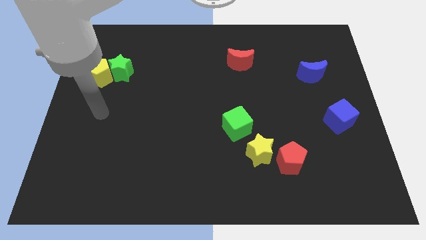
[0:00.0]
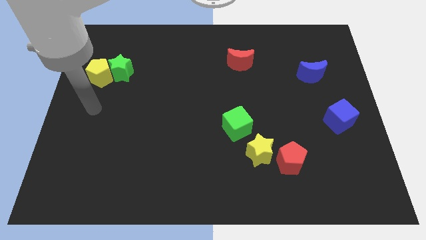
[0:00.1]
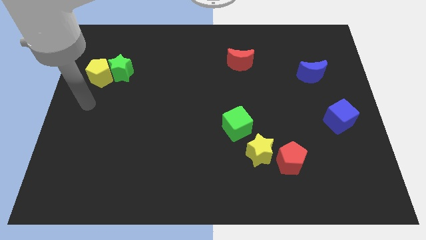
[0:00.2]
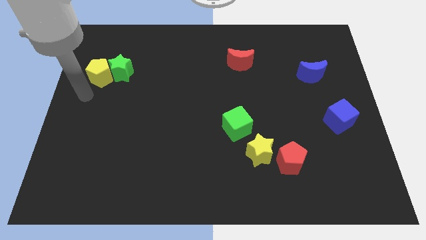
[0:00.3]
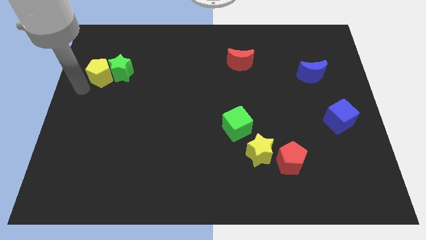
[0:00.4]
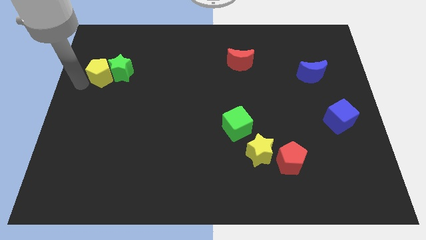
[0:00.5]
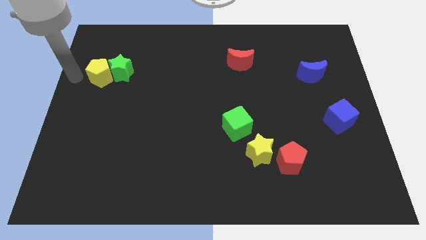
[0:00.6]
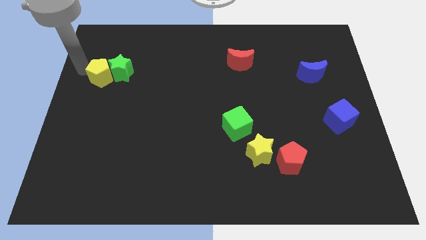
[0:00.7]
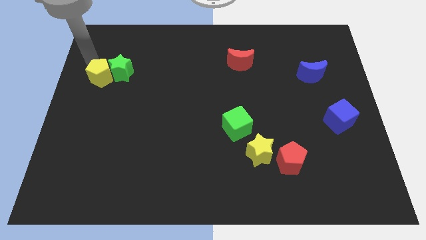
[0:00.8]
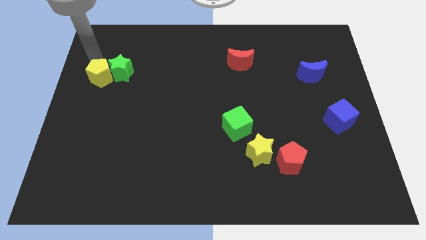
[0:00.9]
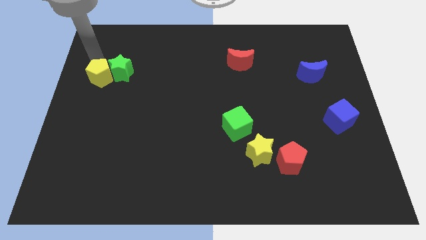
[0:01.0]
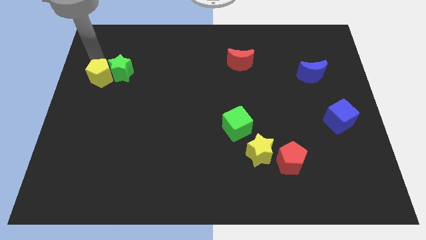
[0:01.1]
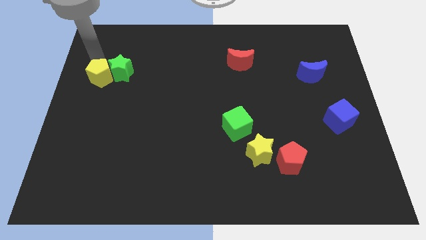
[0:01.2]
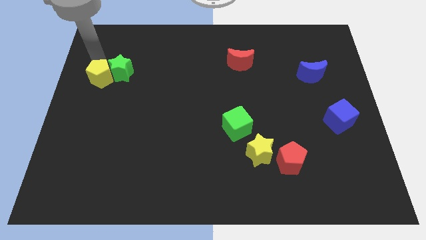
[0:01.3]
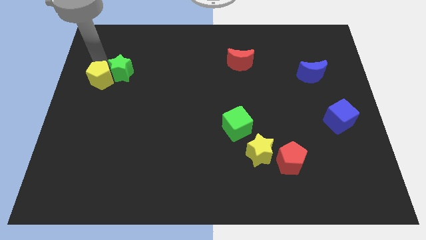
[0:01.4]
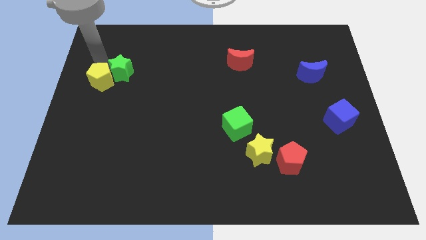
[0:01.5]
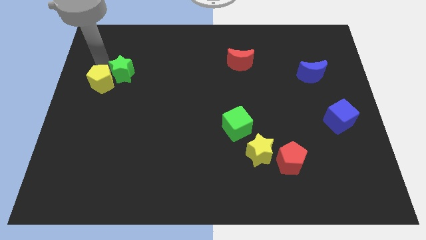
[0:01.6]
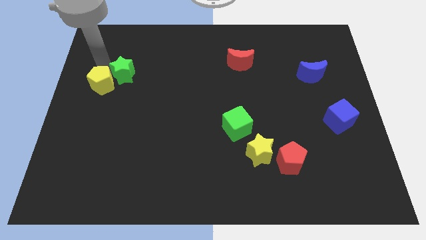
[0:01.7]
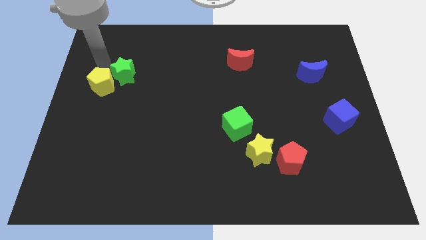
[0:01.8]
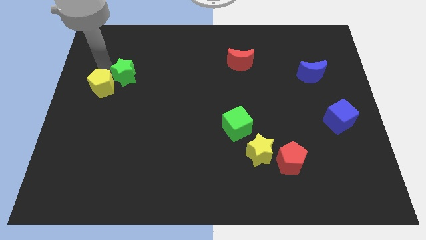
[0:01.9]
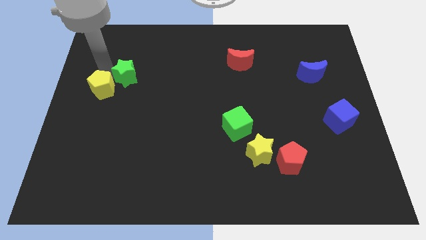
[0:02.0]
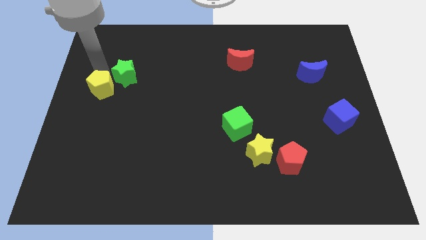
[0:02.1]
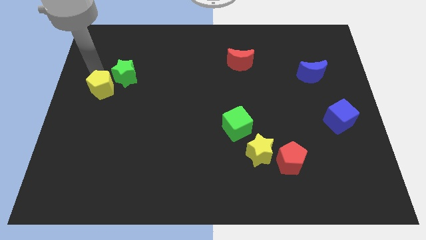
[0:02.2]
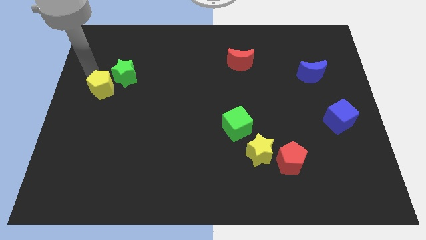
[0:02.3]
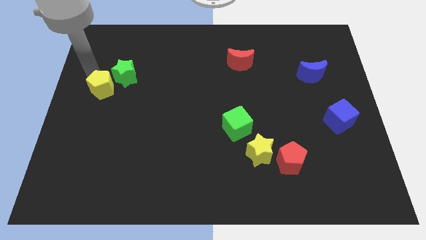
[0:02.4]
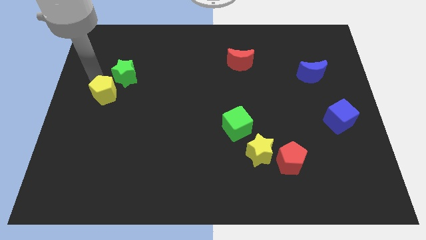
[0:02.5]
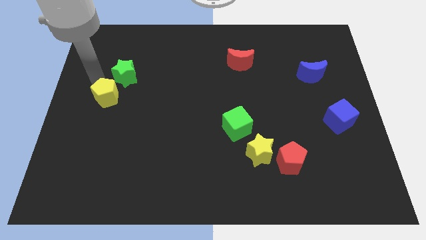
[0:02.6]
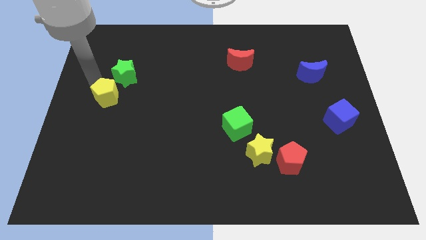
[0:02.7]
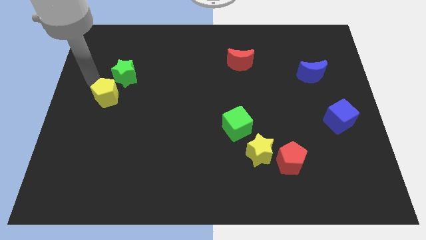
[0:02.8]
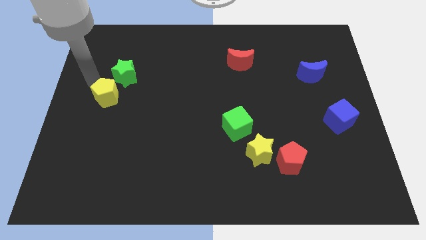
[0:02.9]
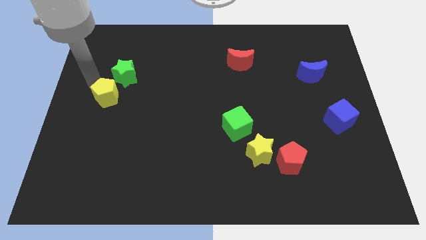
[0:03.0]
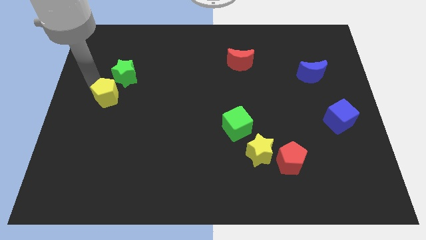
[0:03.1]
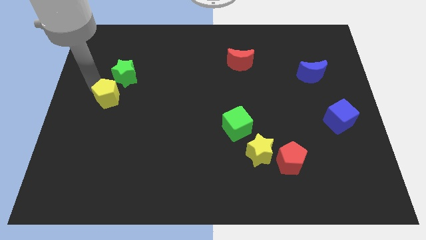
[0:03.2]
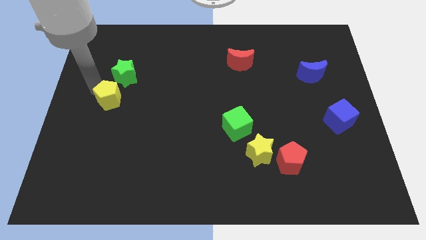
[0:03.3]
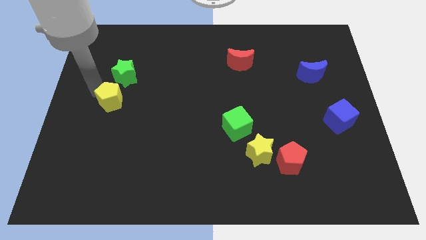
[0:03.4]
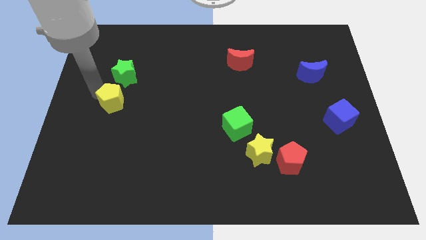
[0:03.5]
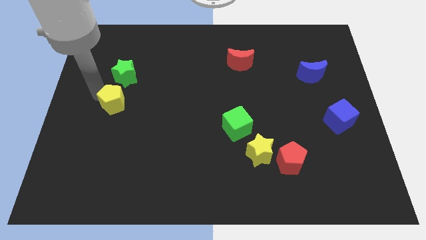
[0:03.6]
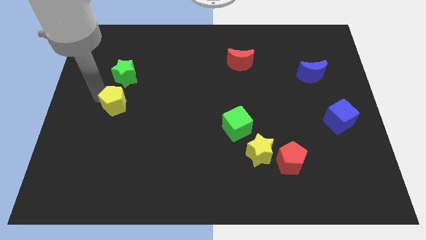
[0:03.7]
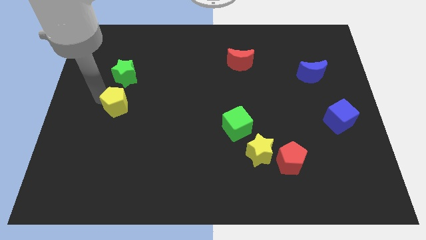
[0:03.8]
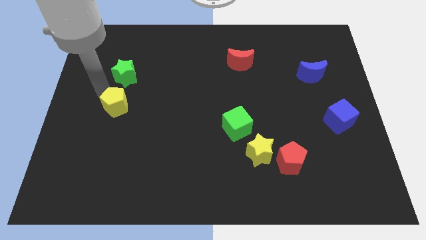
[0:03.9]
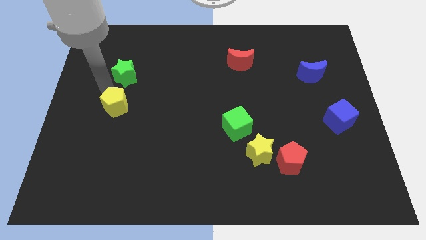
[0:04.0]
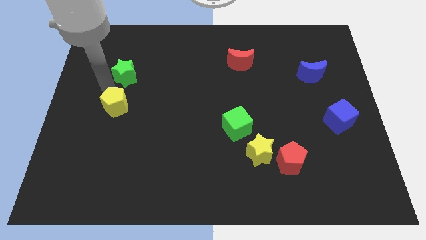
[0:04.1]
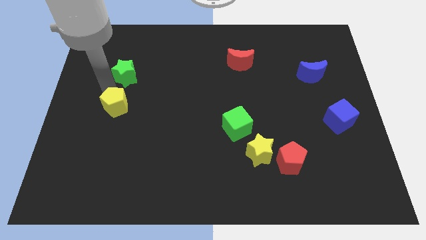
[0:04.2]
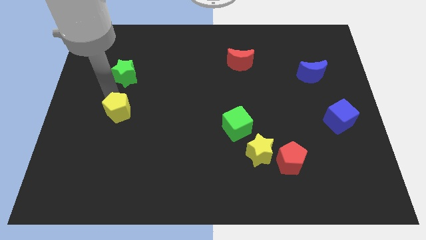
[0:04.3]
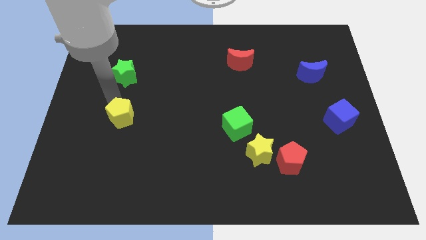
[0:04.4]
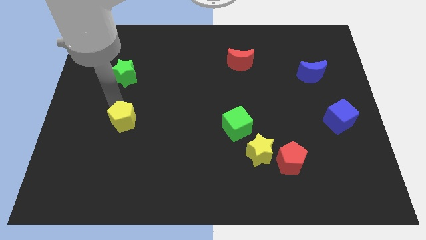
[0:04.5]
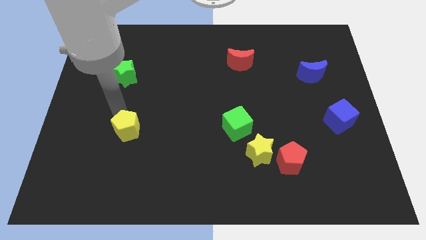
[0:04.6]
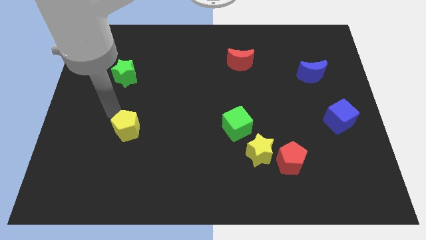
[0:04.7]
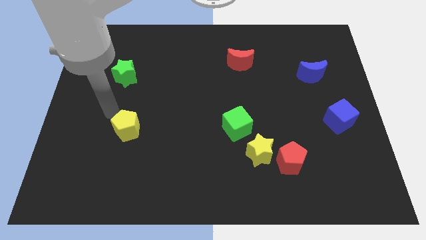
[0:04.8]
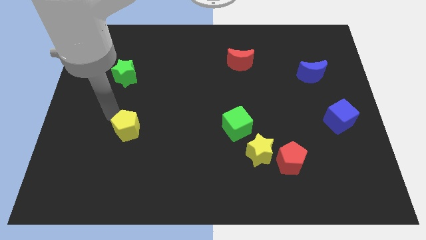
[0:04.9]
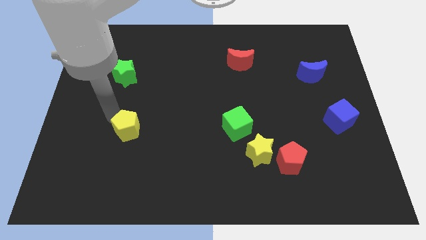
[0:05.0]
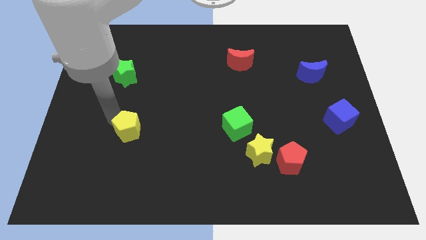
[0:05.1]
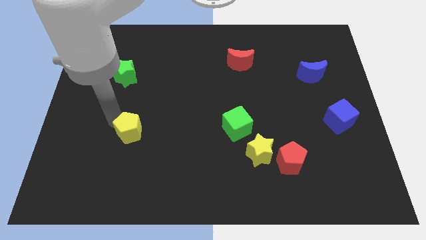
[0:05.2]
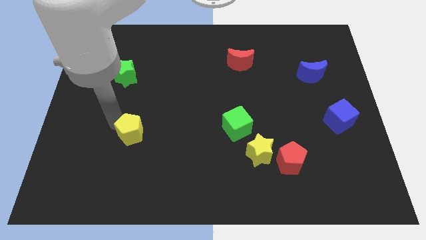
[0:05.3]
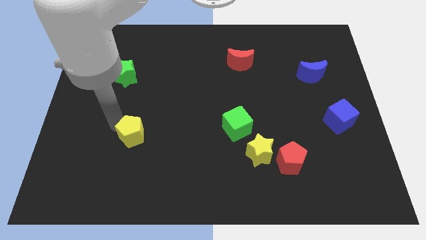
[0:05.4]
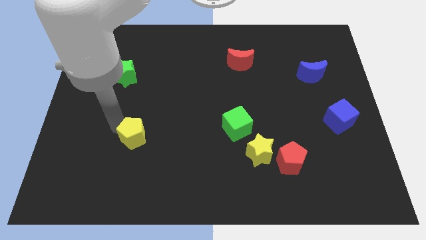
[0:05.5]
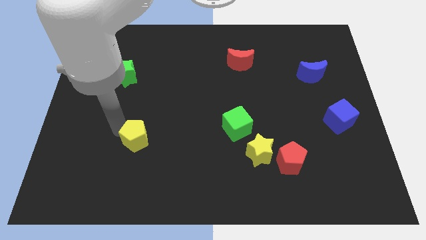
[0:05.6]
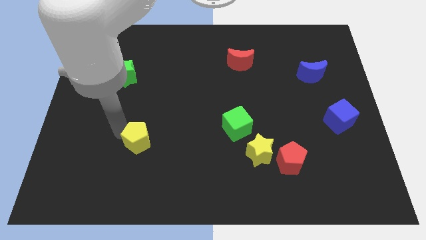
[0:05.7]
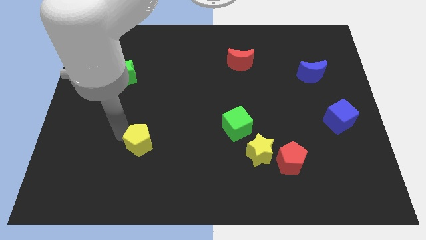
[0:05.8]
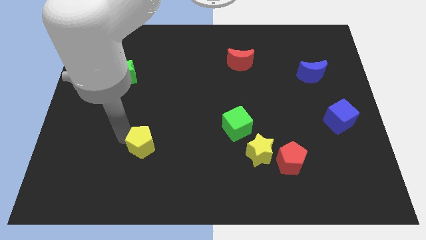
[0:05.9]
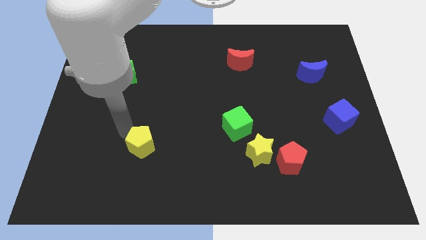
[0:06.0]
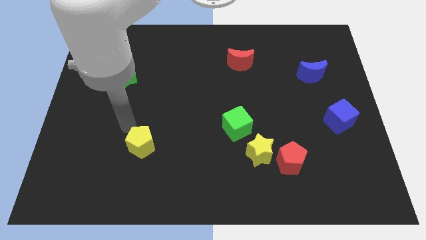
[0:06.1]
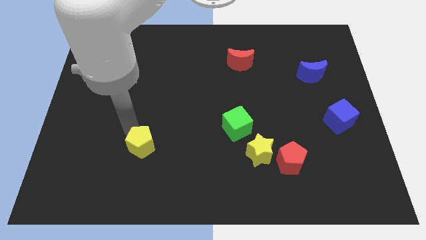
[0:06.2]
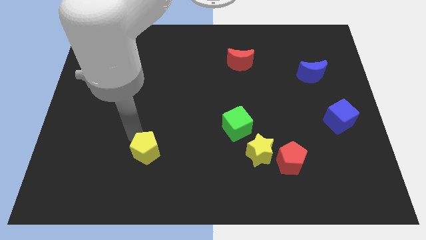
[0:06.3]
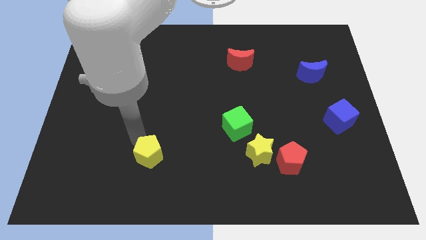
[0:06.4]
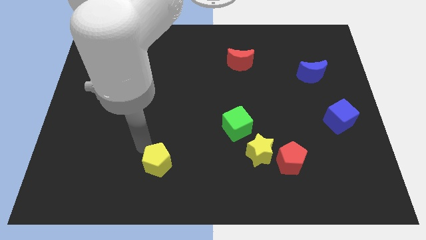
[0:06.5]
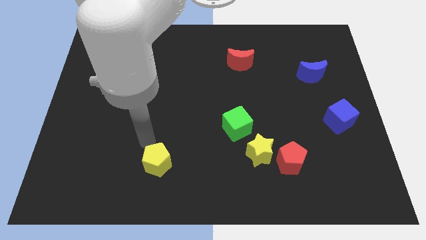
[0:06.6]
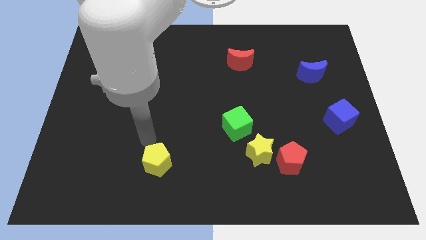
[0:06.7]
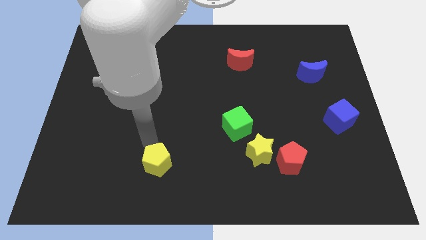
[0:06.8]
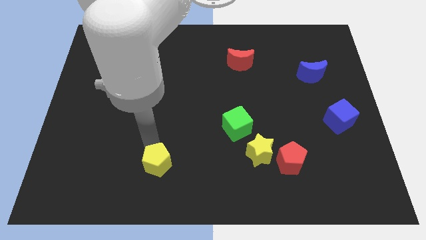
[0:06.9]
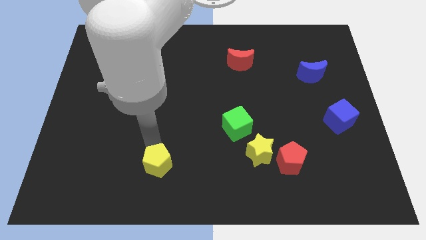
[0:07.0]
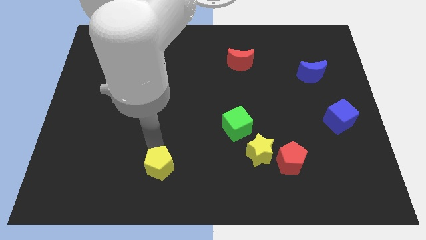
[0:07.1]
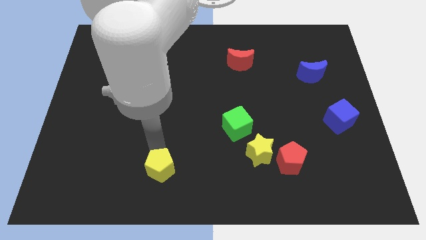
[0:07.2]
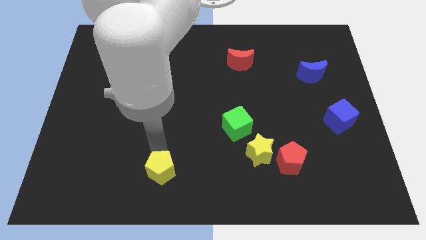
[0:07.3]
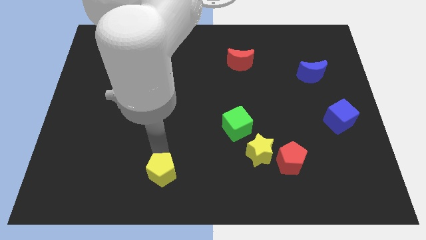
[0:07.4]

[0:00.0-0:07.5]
slide the yellow pentagon to the bottom

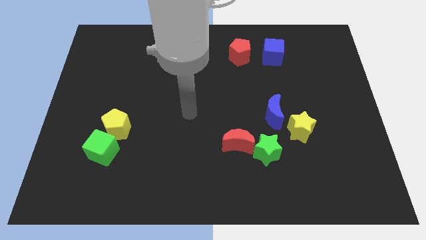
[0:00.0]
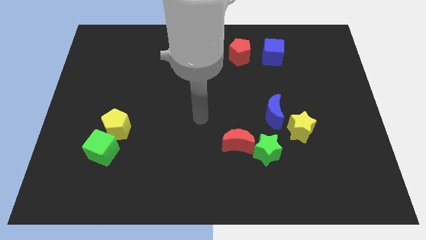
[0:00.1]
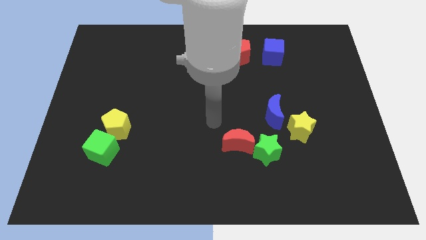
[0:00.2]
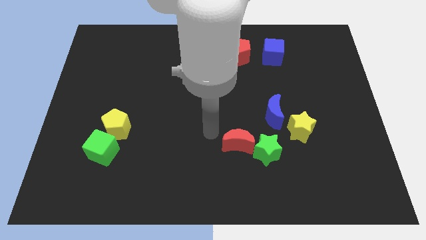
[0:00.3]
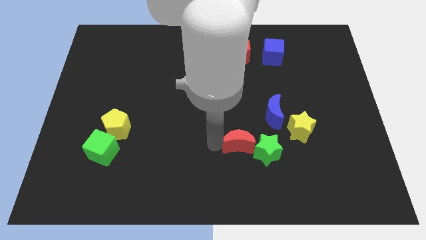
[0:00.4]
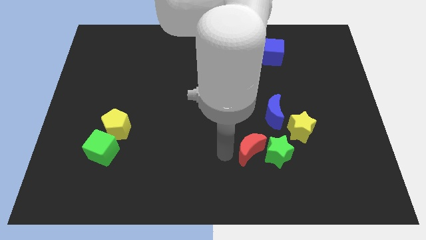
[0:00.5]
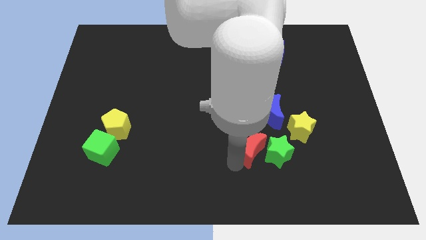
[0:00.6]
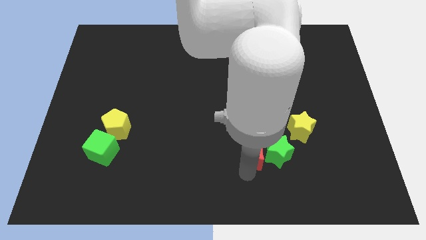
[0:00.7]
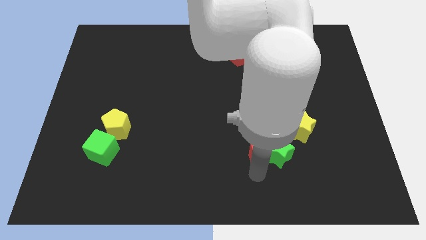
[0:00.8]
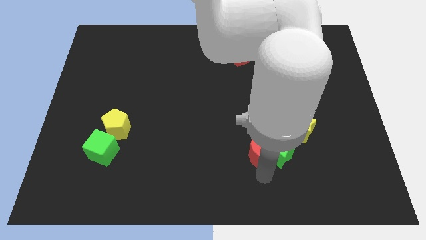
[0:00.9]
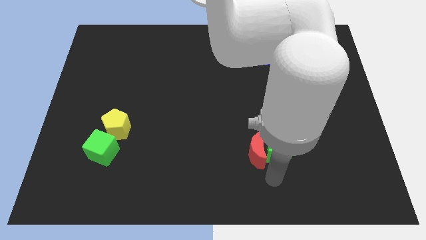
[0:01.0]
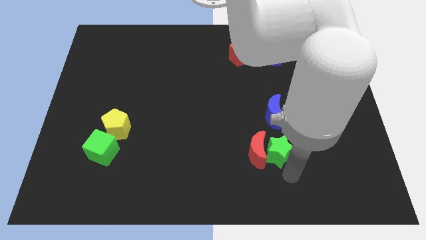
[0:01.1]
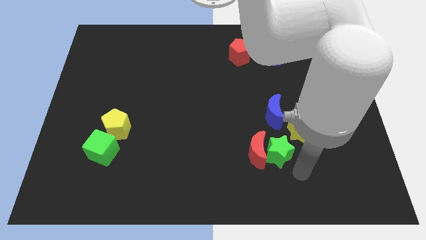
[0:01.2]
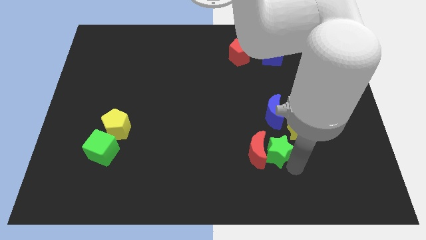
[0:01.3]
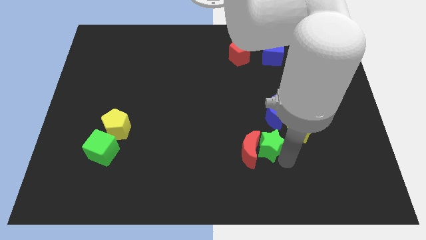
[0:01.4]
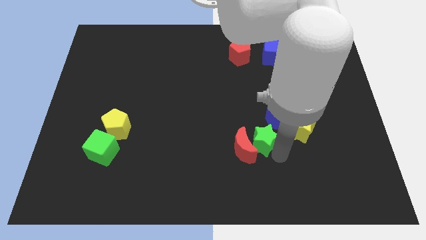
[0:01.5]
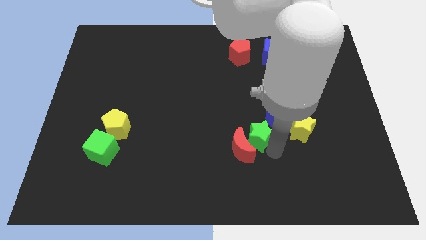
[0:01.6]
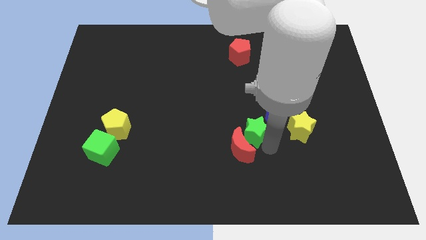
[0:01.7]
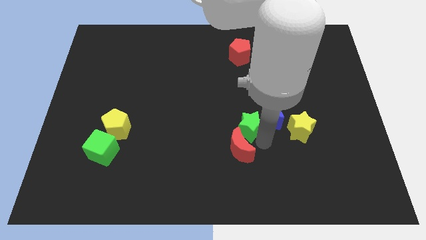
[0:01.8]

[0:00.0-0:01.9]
move the green star to the center
